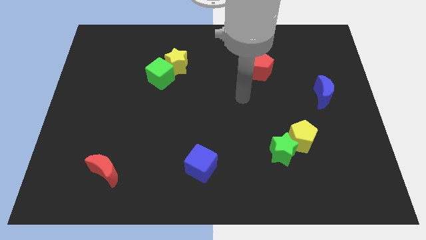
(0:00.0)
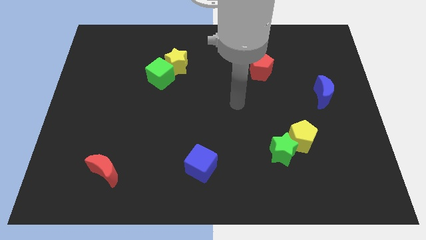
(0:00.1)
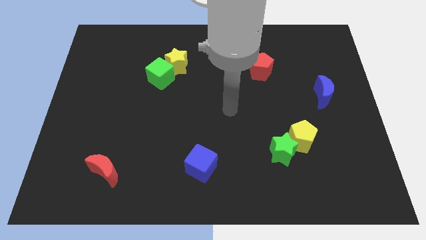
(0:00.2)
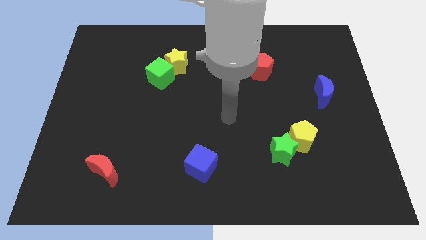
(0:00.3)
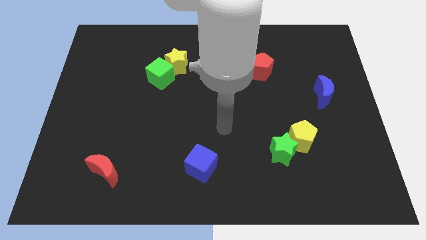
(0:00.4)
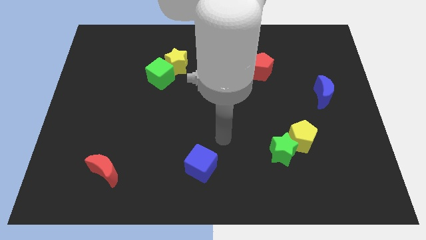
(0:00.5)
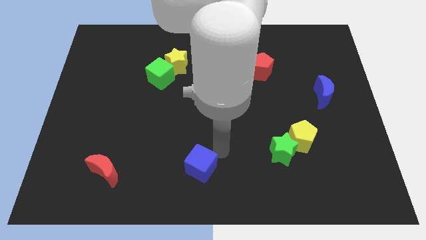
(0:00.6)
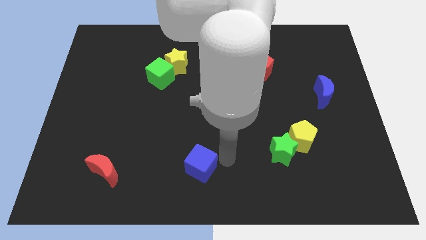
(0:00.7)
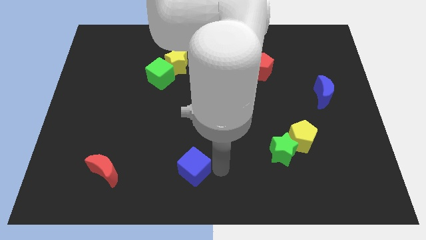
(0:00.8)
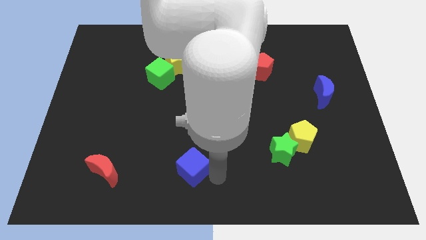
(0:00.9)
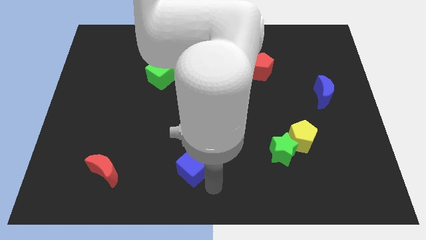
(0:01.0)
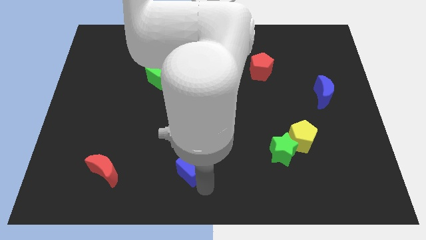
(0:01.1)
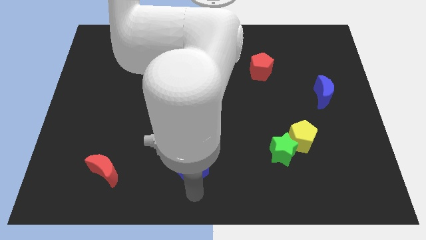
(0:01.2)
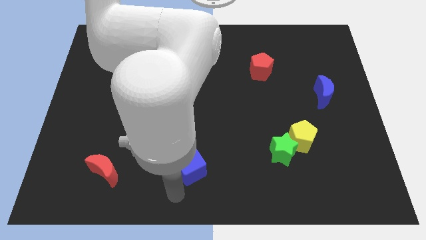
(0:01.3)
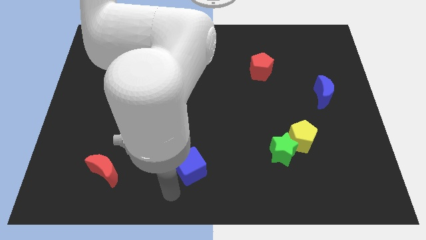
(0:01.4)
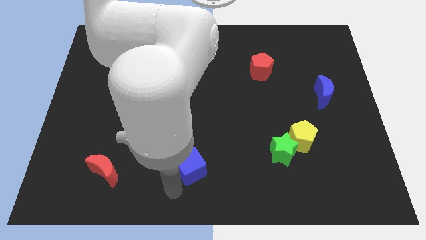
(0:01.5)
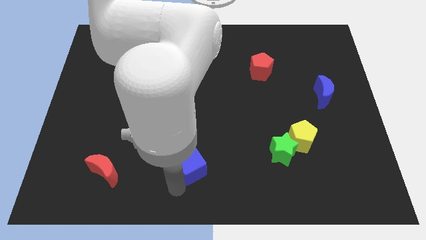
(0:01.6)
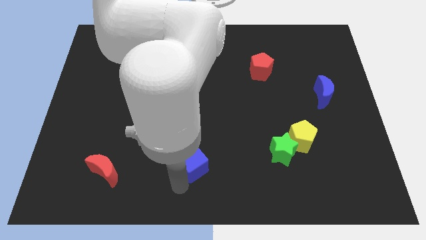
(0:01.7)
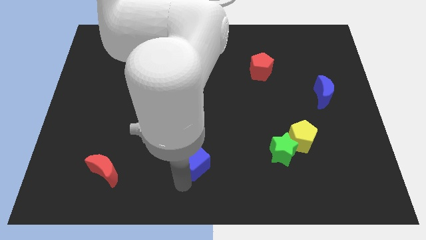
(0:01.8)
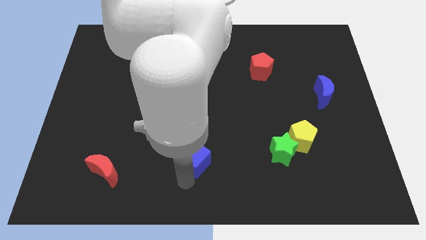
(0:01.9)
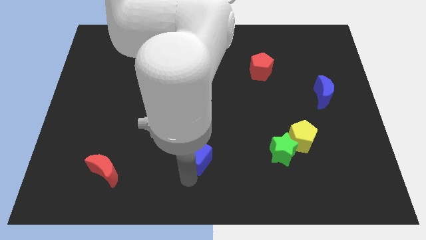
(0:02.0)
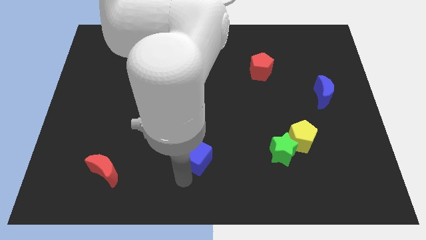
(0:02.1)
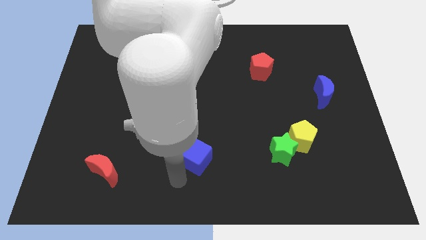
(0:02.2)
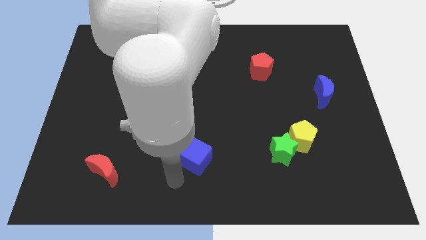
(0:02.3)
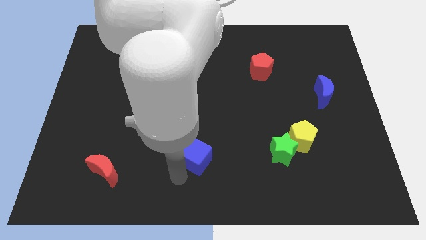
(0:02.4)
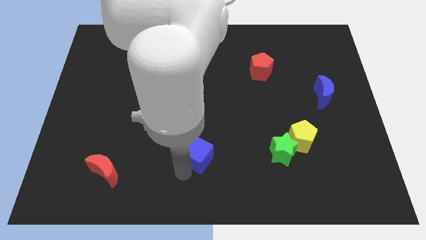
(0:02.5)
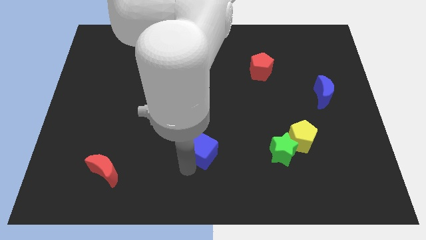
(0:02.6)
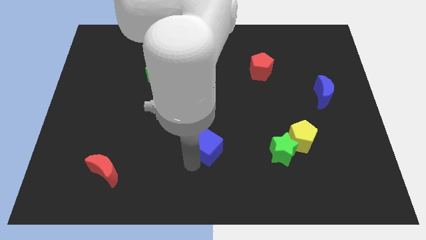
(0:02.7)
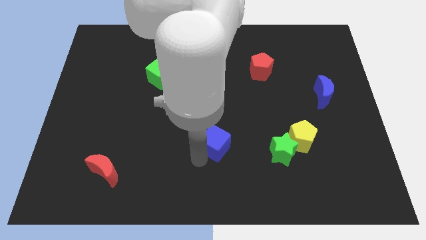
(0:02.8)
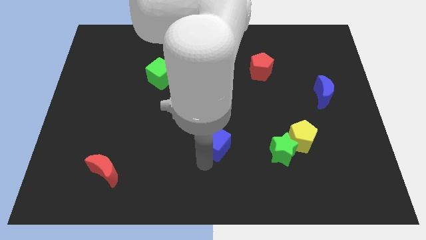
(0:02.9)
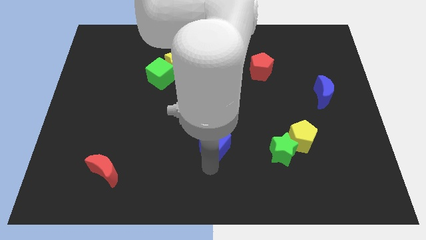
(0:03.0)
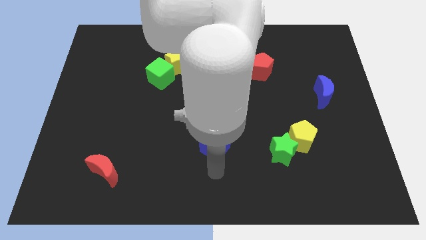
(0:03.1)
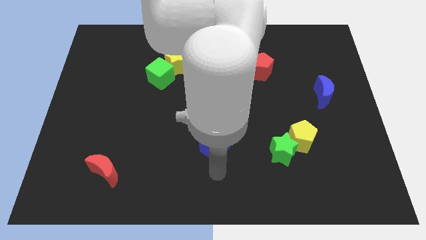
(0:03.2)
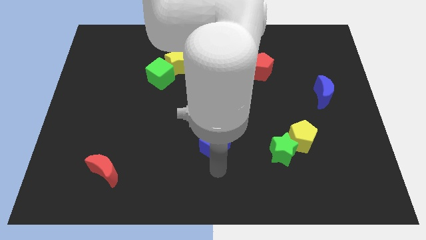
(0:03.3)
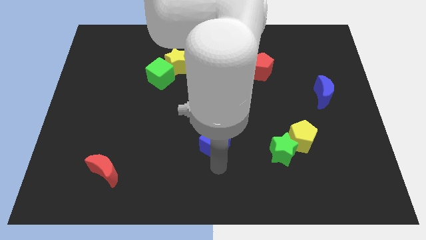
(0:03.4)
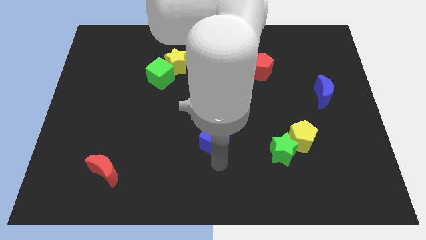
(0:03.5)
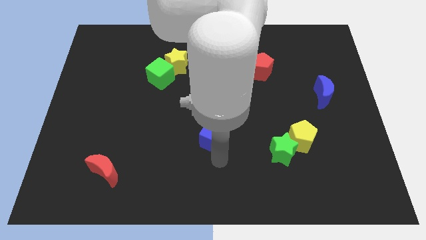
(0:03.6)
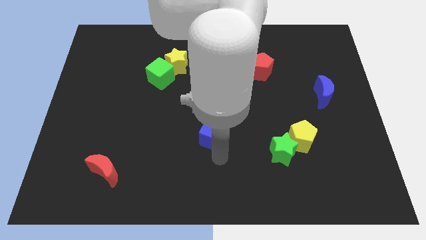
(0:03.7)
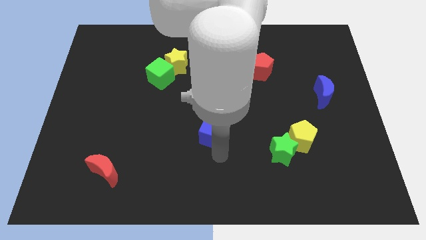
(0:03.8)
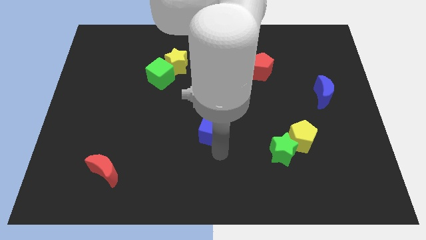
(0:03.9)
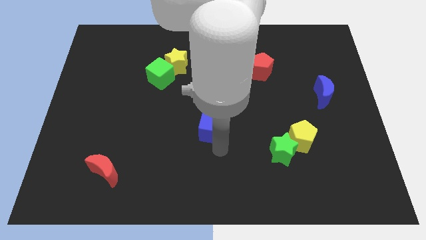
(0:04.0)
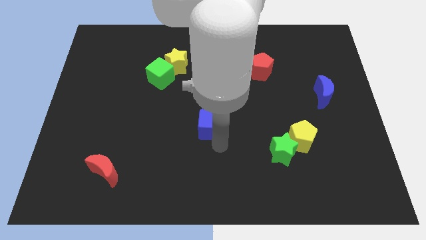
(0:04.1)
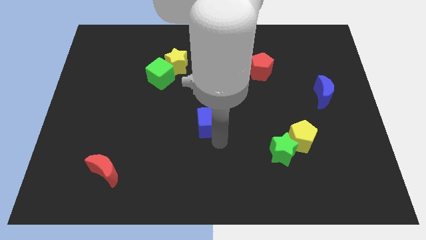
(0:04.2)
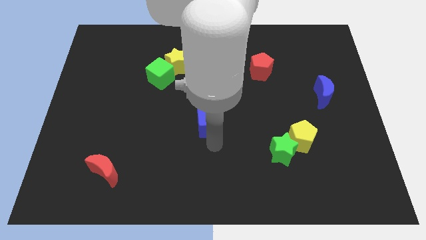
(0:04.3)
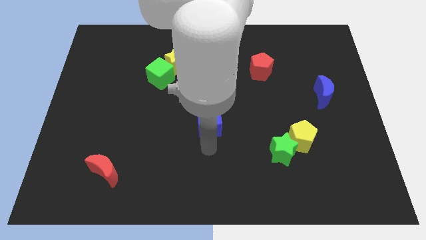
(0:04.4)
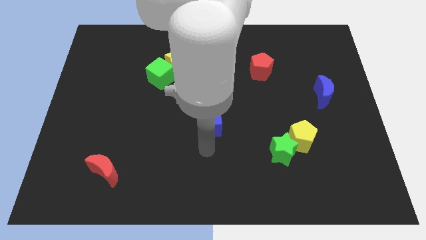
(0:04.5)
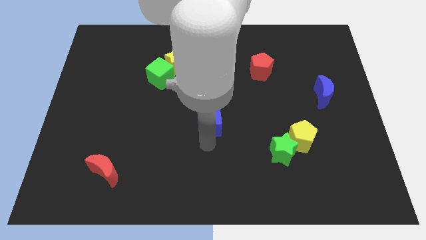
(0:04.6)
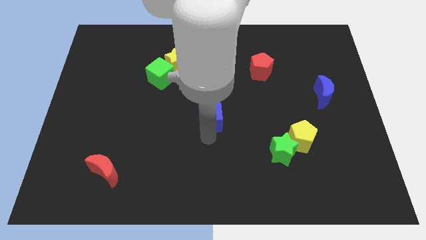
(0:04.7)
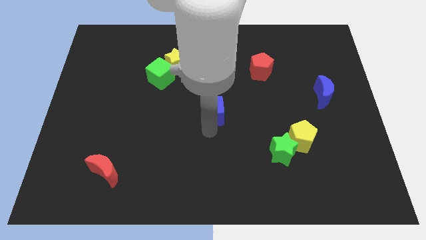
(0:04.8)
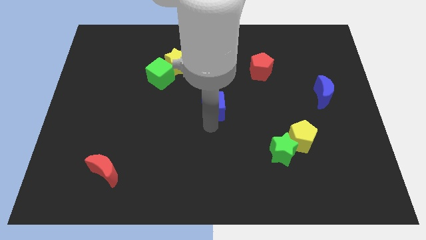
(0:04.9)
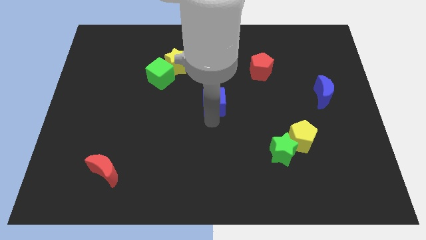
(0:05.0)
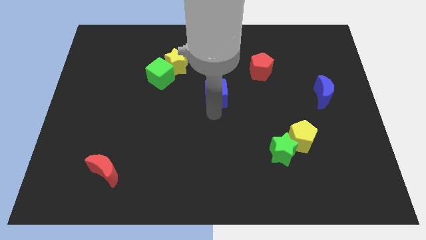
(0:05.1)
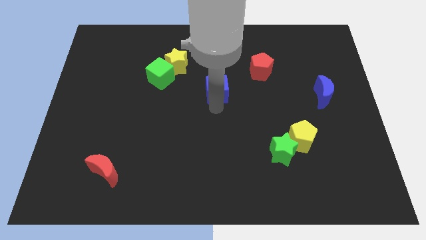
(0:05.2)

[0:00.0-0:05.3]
slide the blue cube upwards

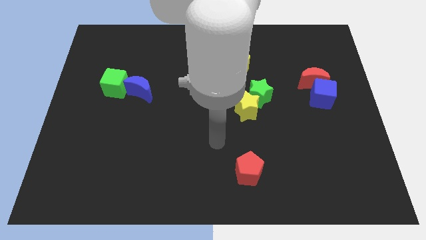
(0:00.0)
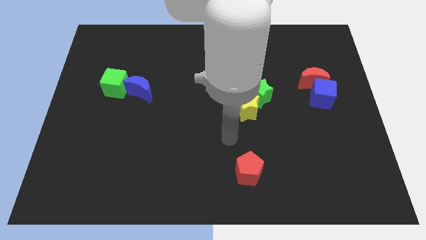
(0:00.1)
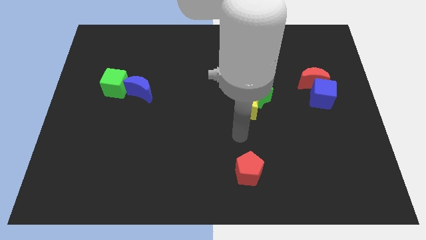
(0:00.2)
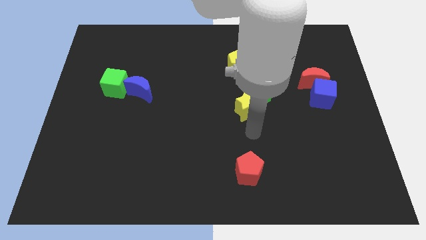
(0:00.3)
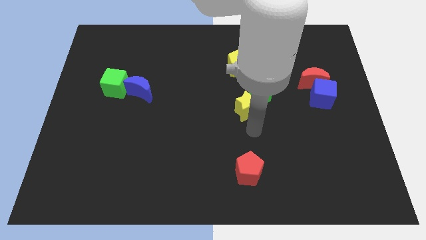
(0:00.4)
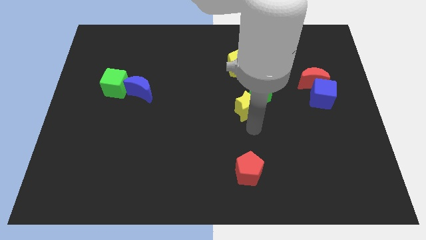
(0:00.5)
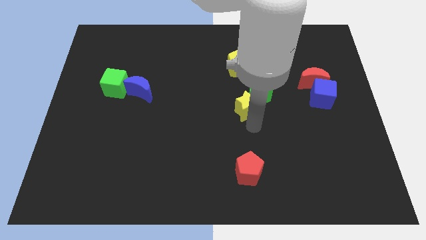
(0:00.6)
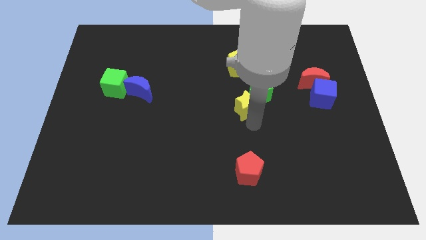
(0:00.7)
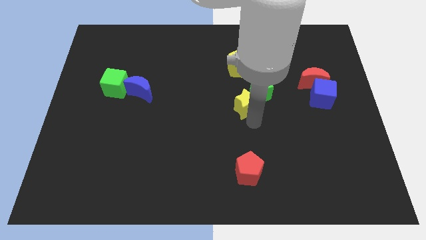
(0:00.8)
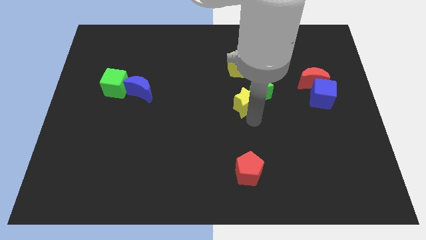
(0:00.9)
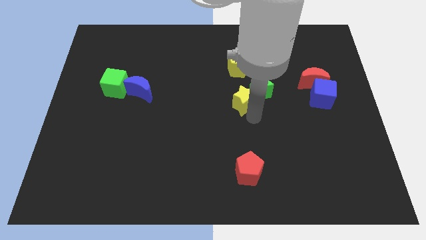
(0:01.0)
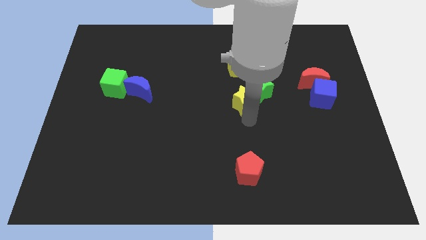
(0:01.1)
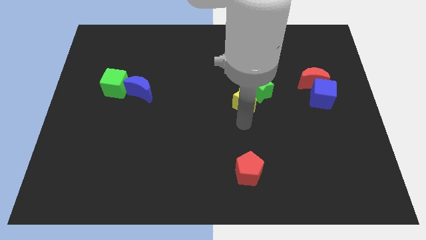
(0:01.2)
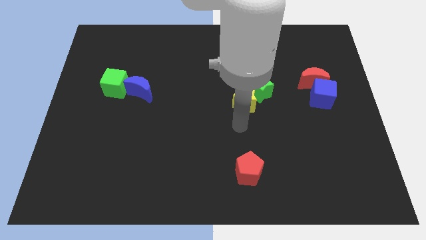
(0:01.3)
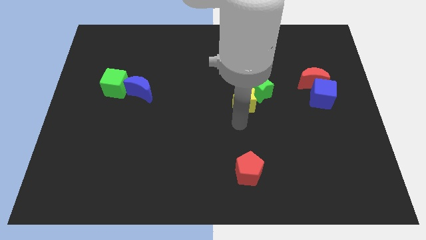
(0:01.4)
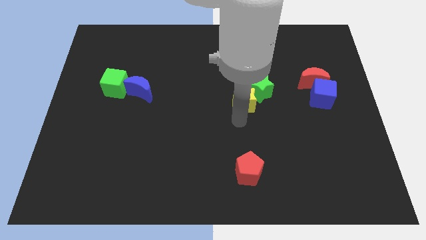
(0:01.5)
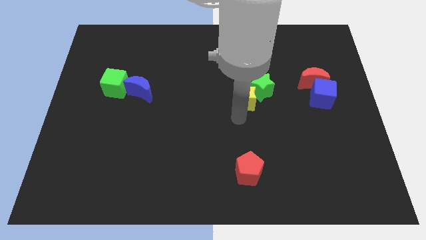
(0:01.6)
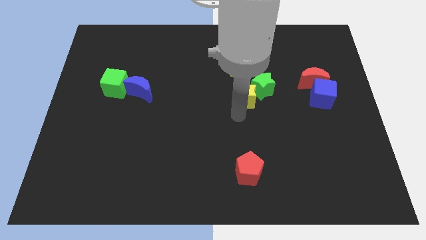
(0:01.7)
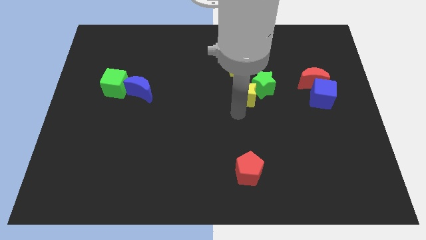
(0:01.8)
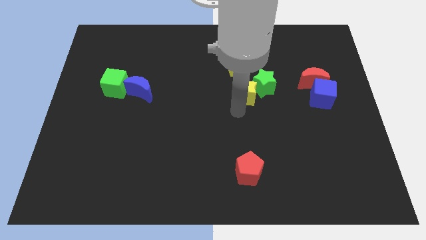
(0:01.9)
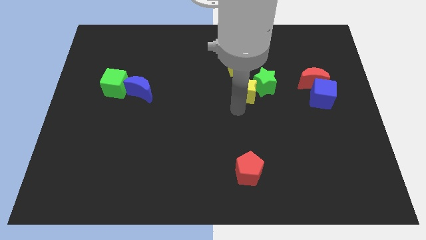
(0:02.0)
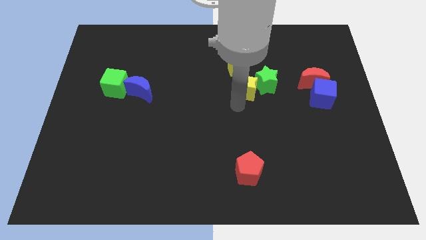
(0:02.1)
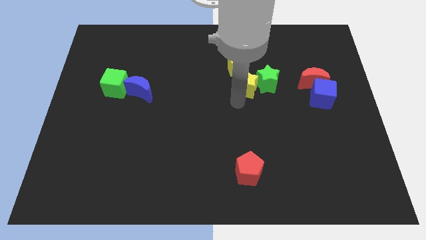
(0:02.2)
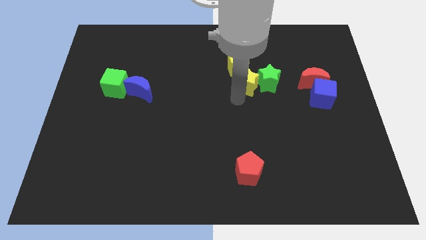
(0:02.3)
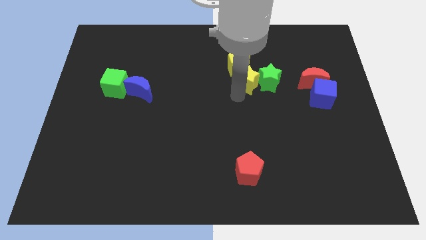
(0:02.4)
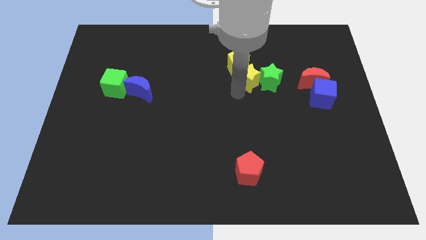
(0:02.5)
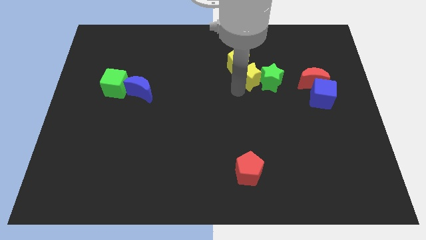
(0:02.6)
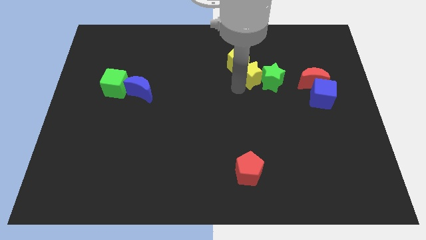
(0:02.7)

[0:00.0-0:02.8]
slide the yellow star slightly up and then right
